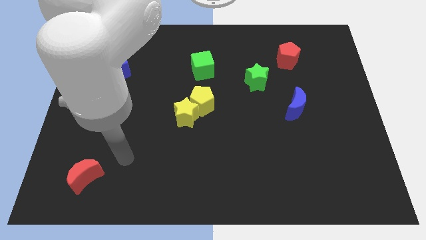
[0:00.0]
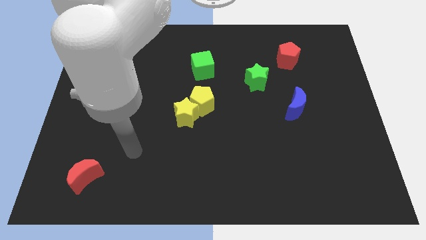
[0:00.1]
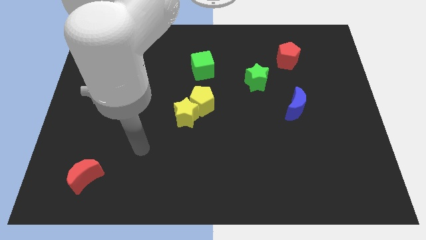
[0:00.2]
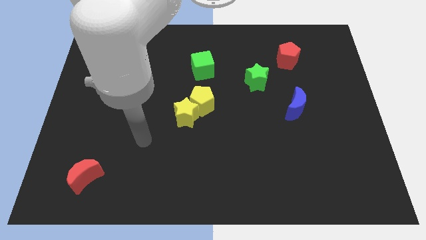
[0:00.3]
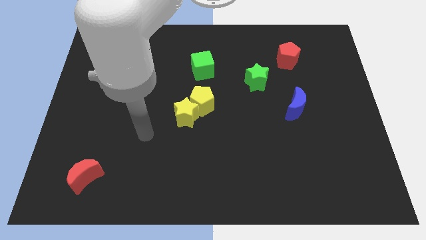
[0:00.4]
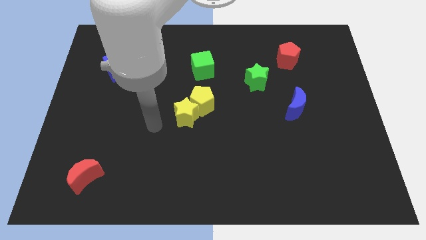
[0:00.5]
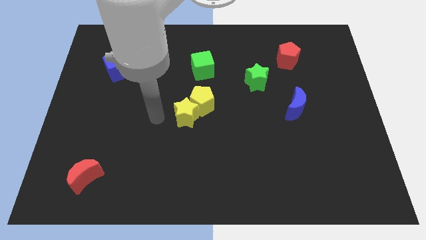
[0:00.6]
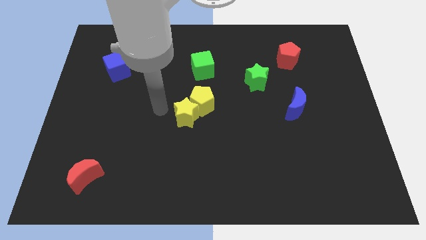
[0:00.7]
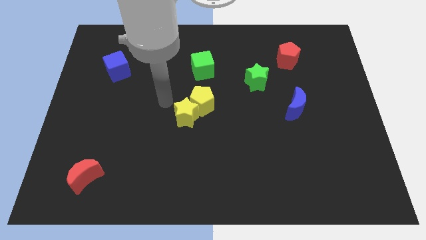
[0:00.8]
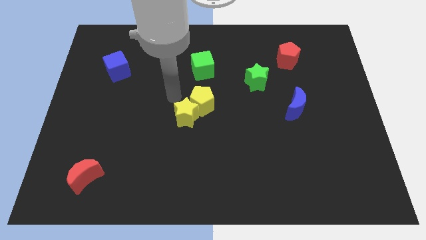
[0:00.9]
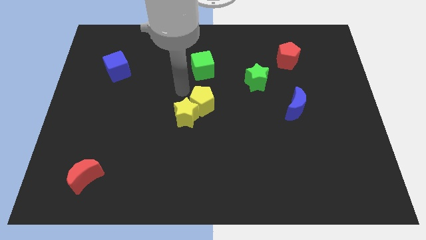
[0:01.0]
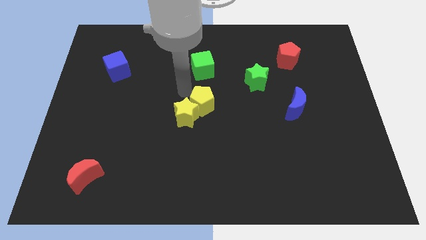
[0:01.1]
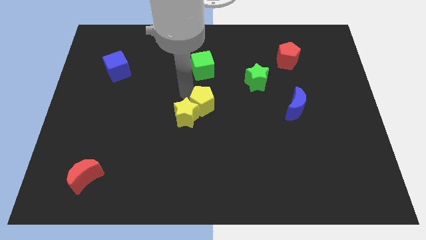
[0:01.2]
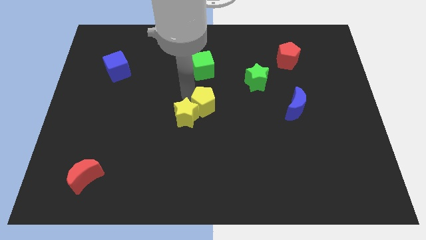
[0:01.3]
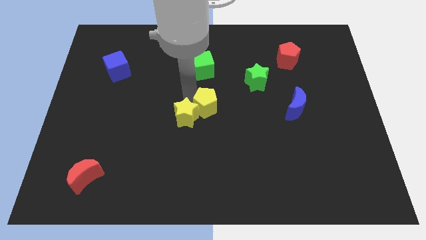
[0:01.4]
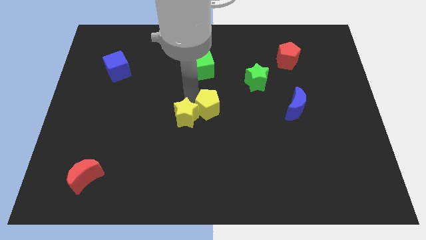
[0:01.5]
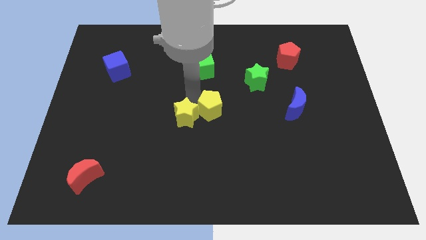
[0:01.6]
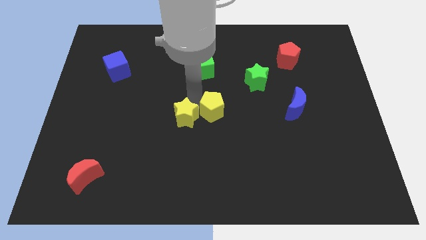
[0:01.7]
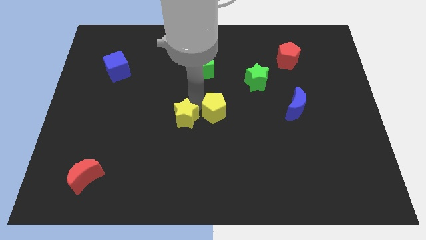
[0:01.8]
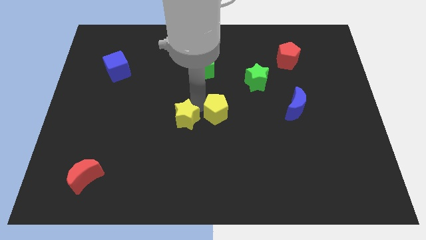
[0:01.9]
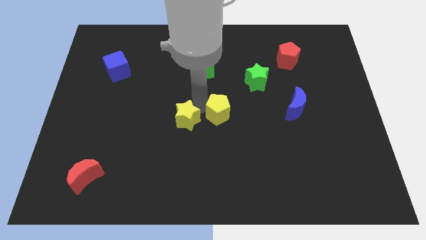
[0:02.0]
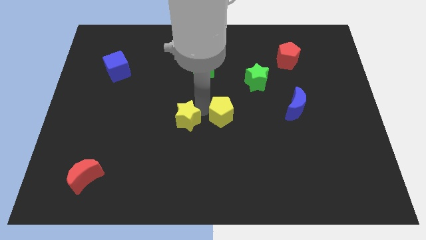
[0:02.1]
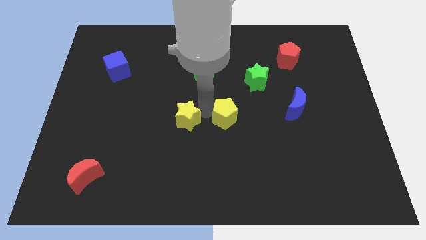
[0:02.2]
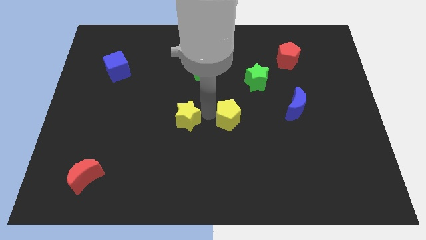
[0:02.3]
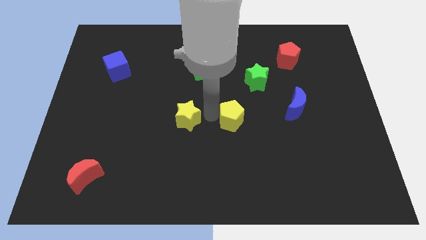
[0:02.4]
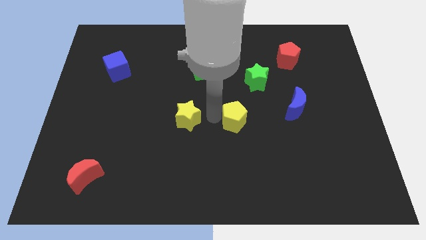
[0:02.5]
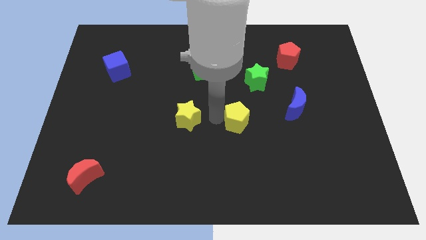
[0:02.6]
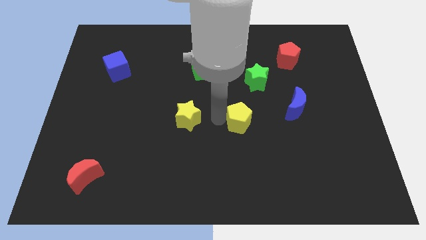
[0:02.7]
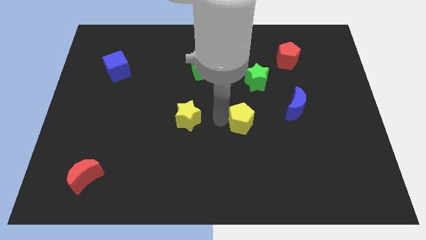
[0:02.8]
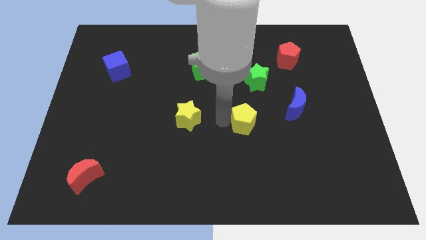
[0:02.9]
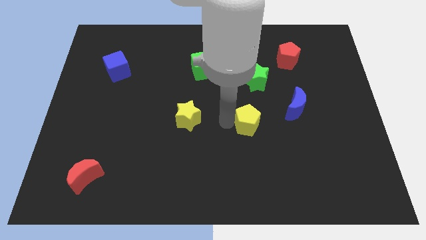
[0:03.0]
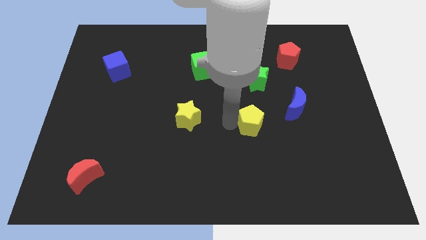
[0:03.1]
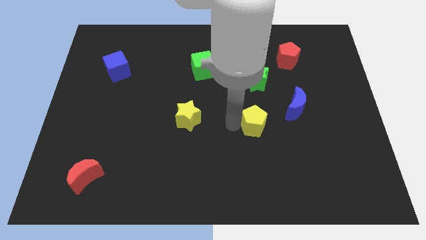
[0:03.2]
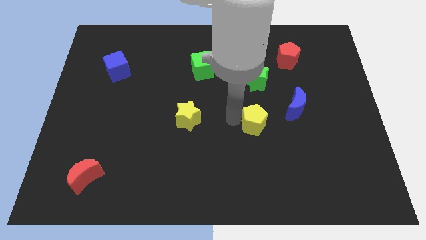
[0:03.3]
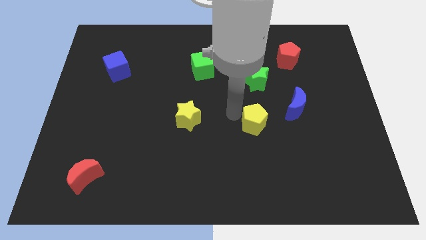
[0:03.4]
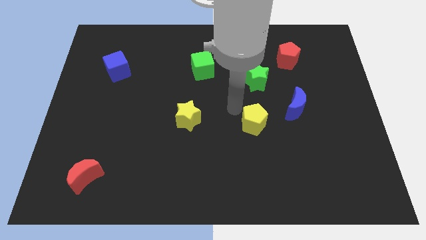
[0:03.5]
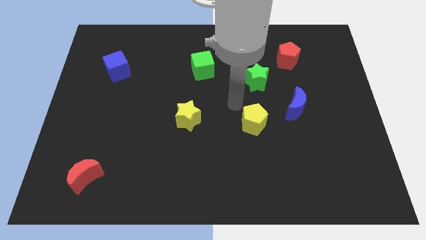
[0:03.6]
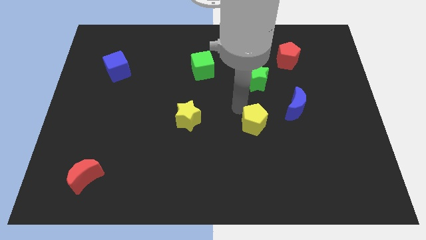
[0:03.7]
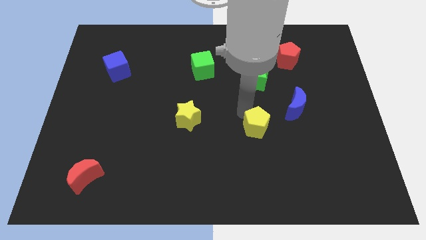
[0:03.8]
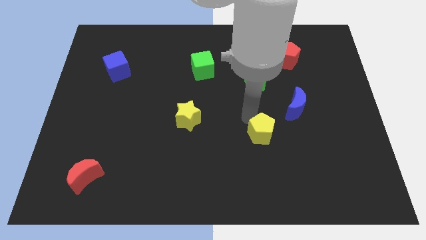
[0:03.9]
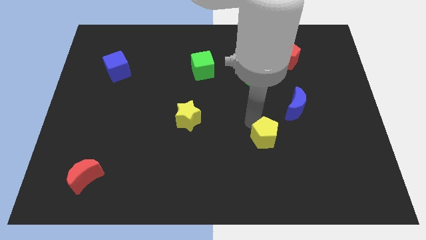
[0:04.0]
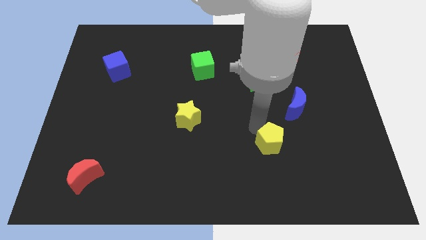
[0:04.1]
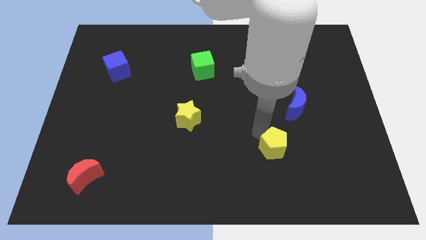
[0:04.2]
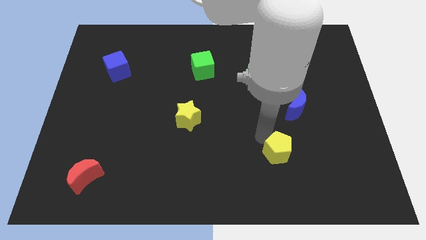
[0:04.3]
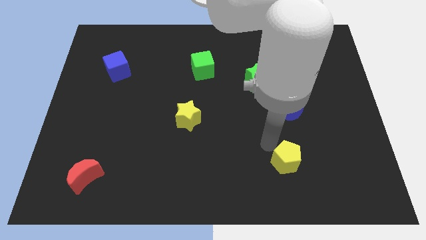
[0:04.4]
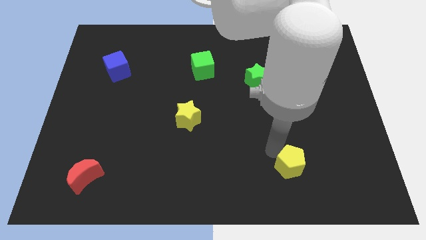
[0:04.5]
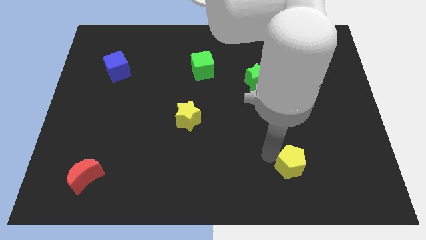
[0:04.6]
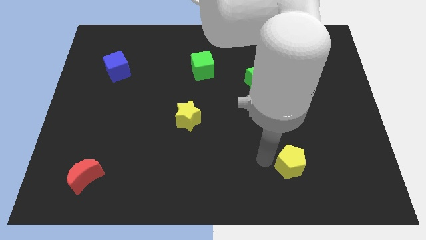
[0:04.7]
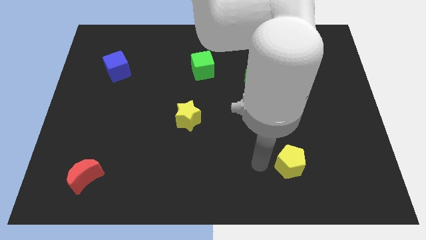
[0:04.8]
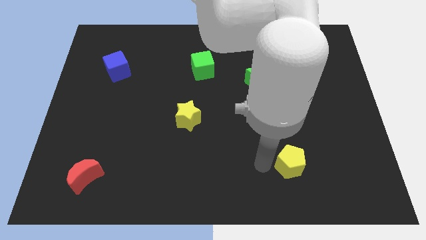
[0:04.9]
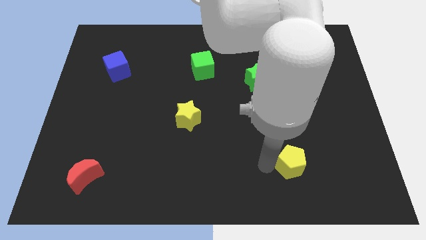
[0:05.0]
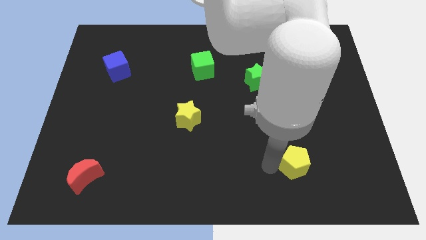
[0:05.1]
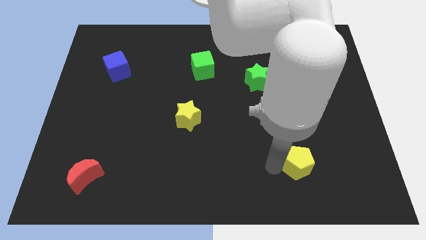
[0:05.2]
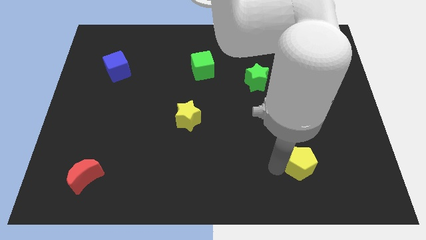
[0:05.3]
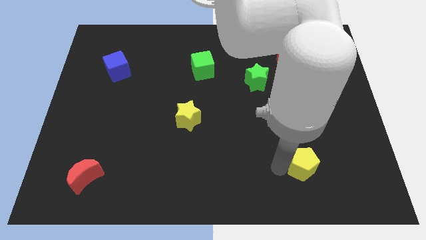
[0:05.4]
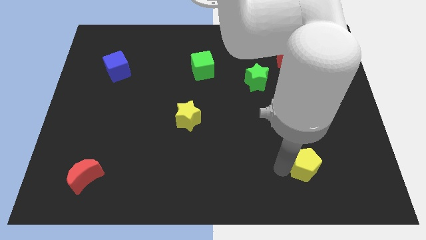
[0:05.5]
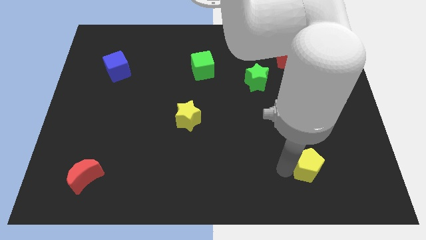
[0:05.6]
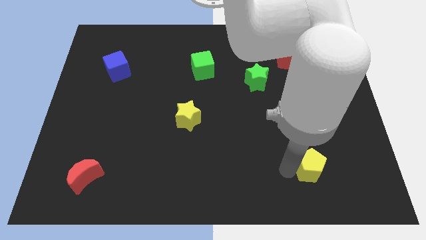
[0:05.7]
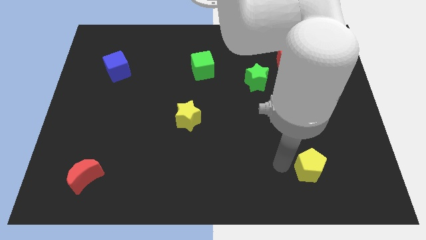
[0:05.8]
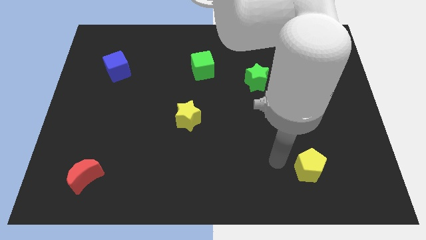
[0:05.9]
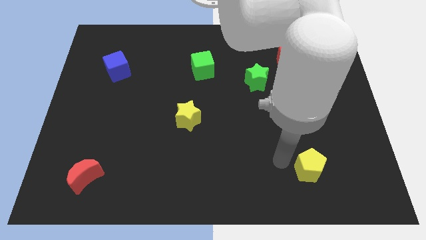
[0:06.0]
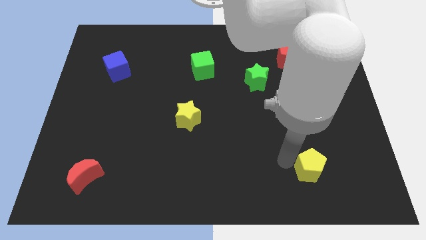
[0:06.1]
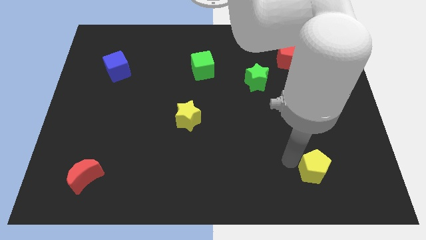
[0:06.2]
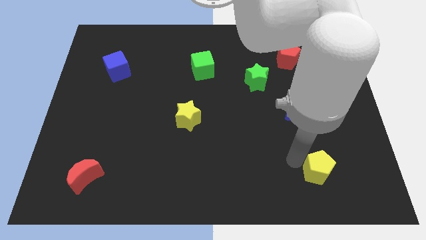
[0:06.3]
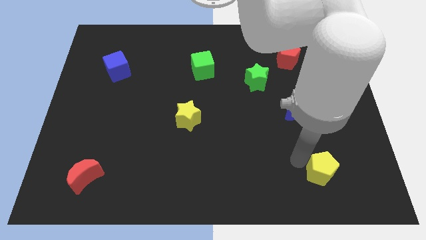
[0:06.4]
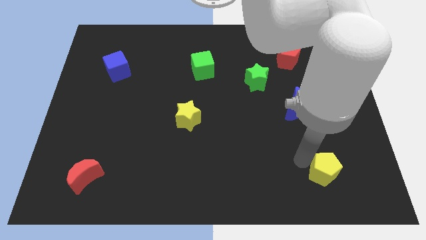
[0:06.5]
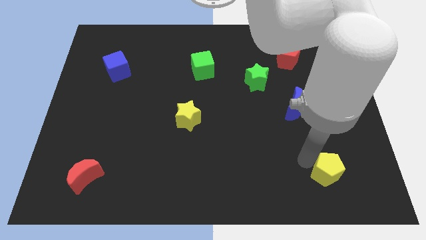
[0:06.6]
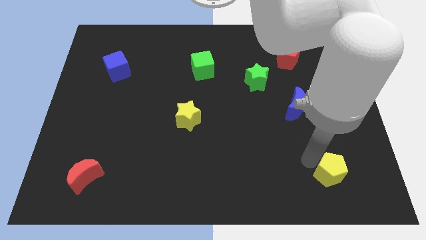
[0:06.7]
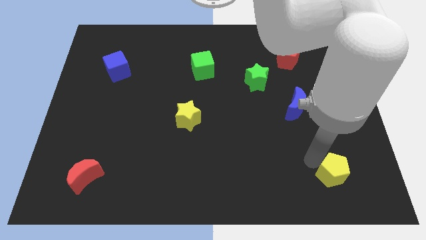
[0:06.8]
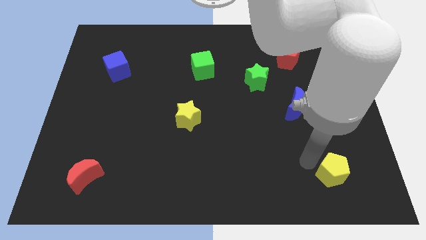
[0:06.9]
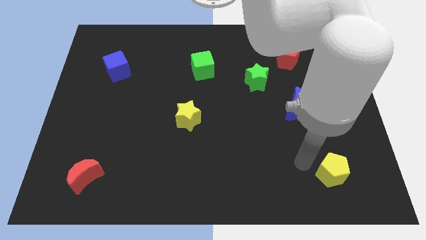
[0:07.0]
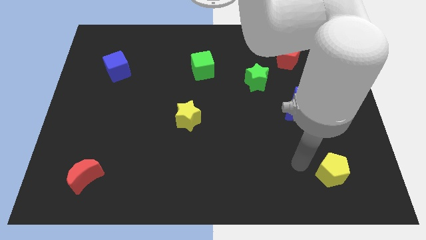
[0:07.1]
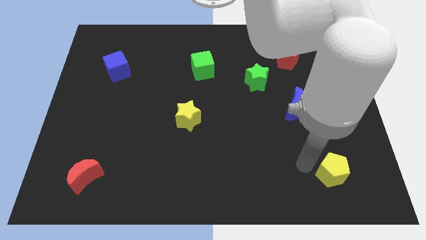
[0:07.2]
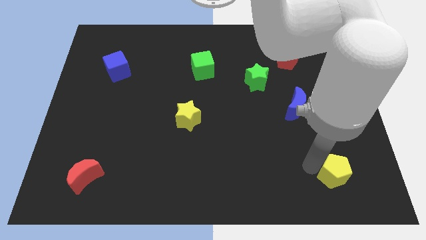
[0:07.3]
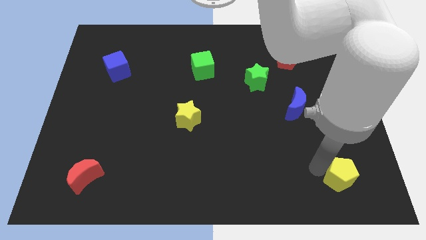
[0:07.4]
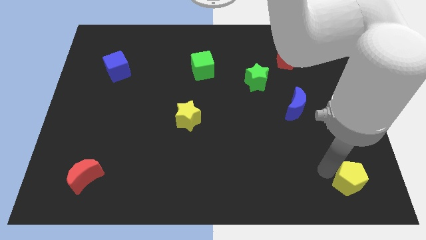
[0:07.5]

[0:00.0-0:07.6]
push the yellow pentagon to the bottom right
